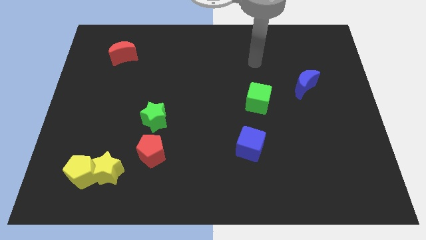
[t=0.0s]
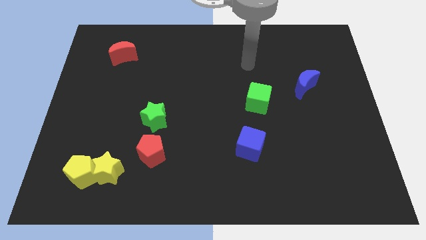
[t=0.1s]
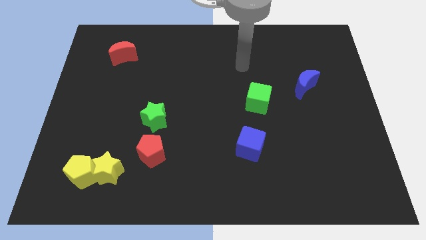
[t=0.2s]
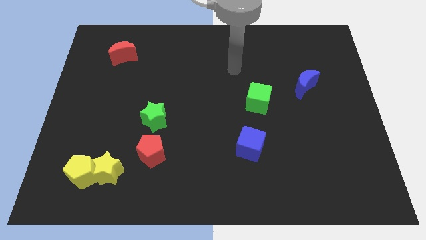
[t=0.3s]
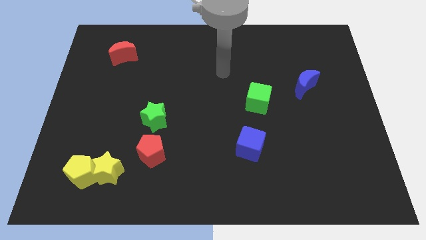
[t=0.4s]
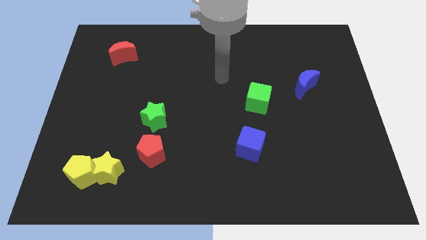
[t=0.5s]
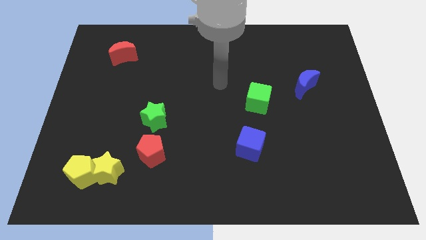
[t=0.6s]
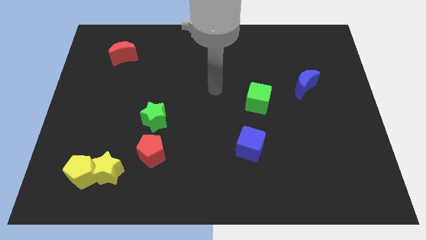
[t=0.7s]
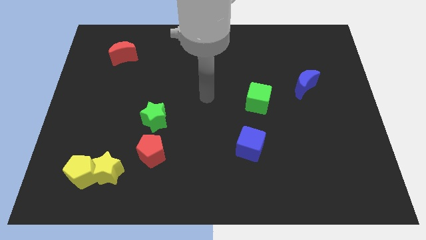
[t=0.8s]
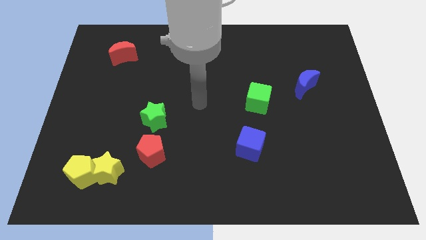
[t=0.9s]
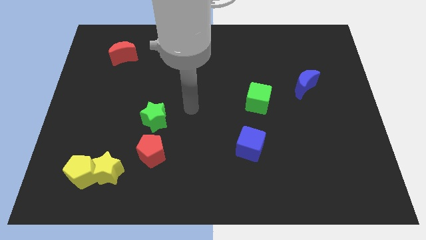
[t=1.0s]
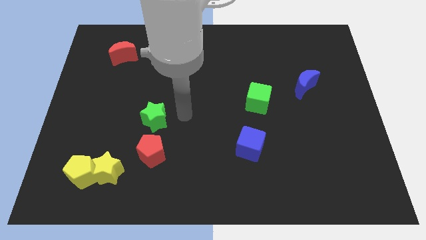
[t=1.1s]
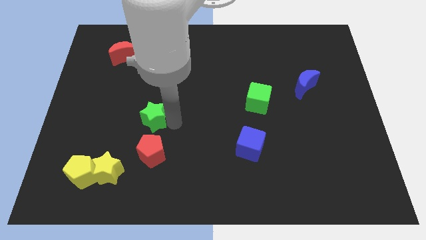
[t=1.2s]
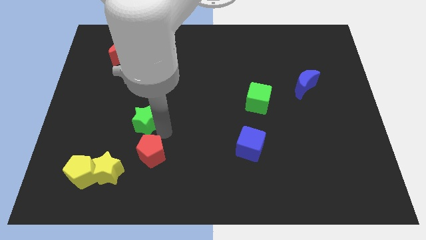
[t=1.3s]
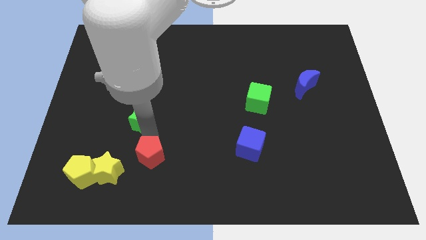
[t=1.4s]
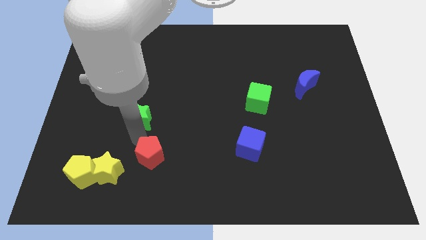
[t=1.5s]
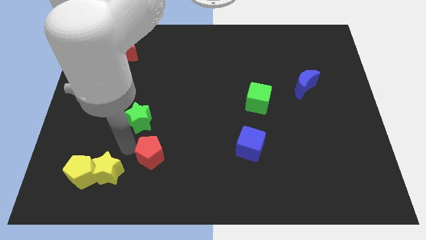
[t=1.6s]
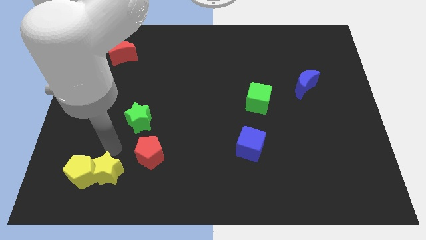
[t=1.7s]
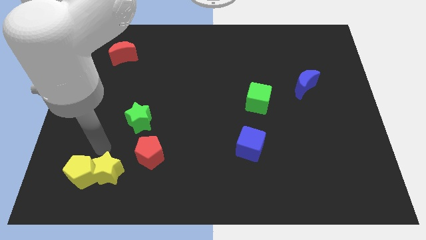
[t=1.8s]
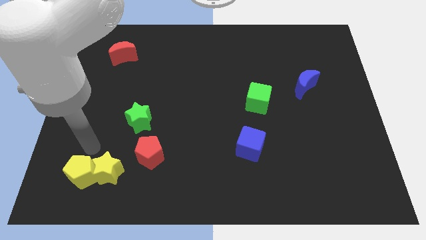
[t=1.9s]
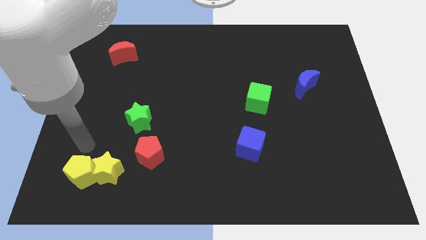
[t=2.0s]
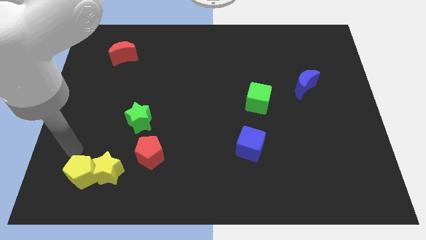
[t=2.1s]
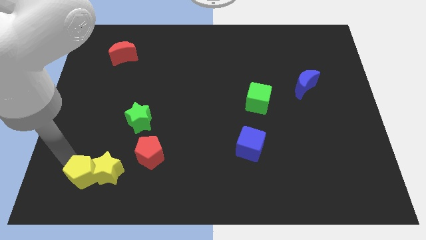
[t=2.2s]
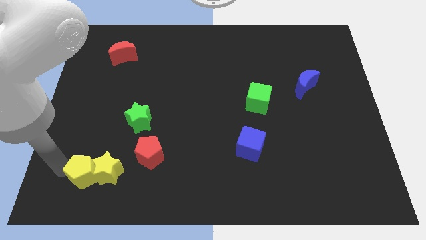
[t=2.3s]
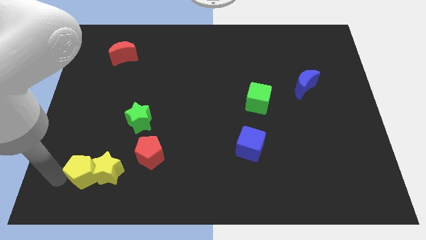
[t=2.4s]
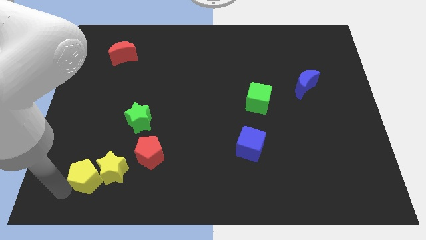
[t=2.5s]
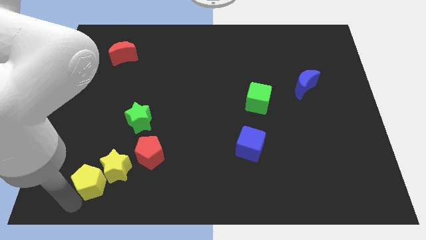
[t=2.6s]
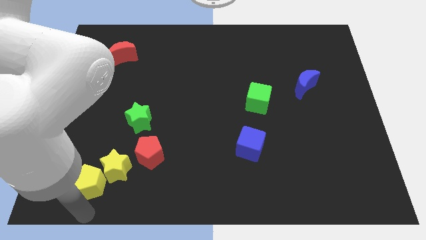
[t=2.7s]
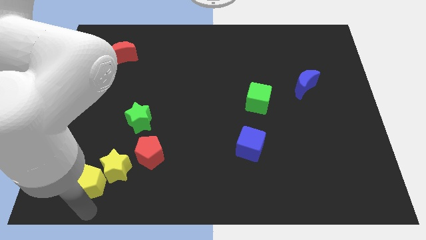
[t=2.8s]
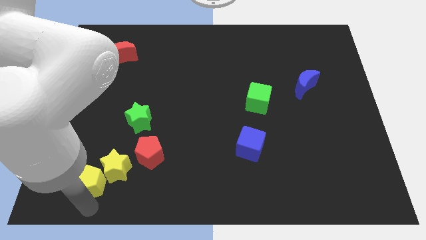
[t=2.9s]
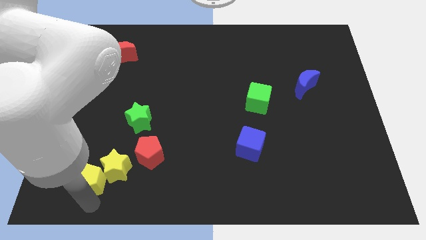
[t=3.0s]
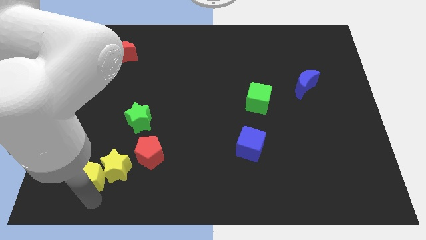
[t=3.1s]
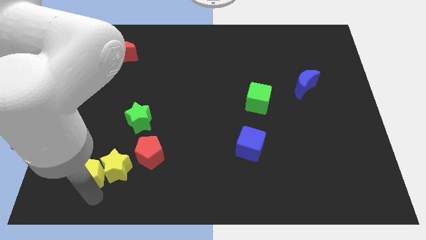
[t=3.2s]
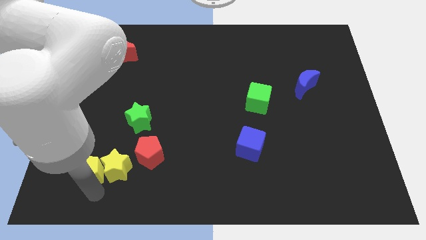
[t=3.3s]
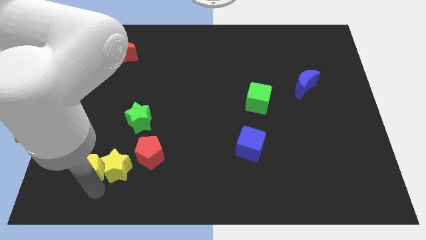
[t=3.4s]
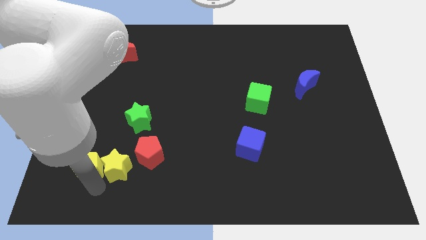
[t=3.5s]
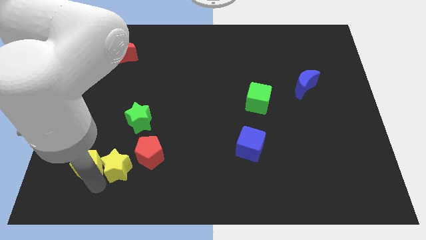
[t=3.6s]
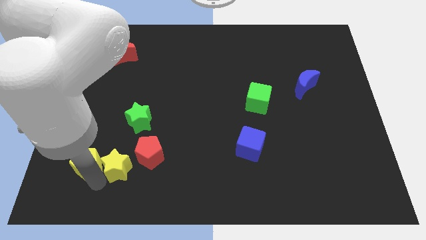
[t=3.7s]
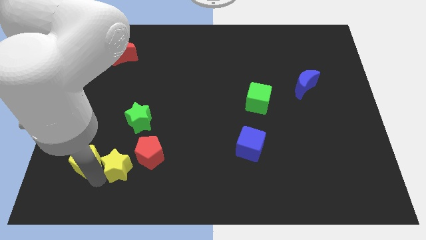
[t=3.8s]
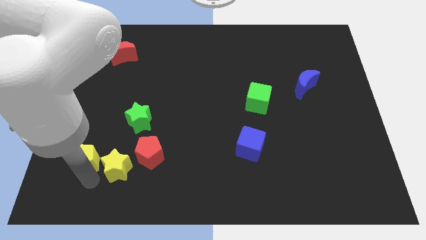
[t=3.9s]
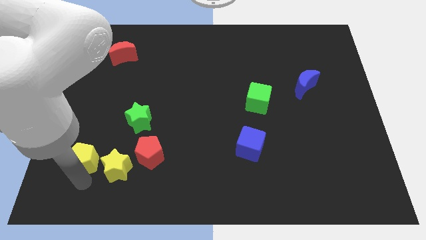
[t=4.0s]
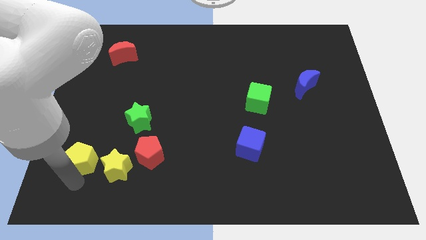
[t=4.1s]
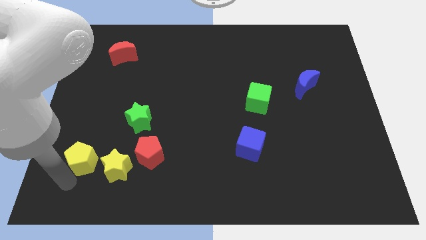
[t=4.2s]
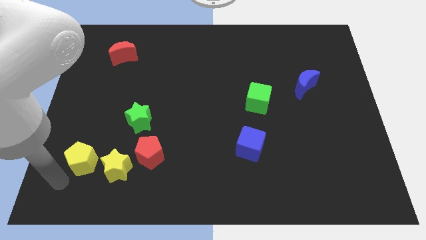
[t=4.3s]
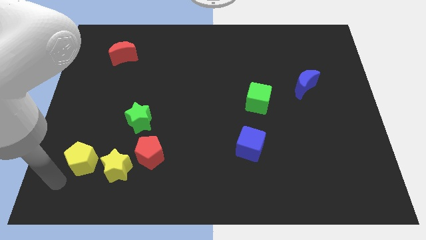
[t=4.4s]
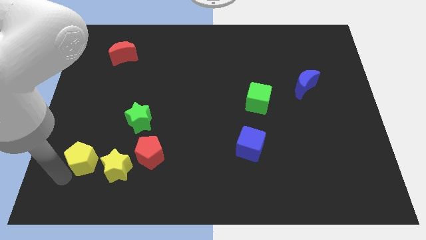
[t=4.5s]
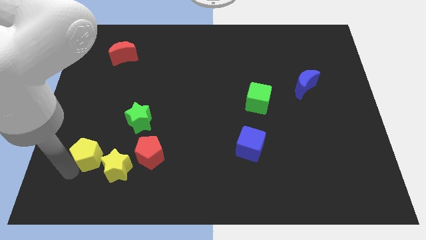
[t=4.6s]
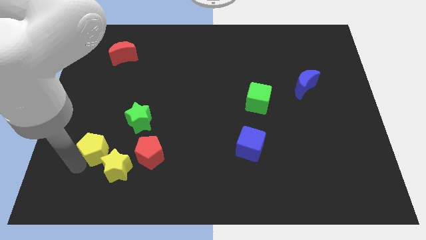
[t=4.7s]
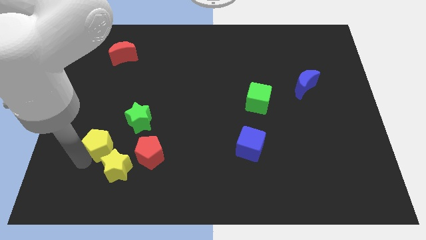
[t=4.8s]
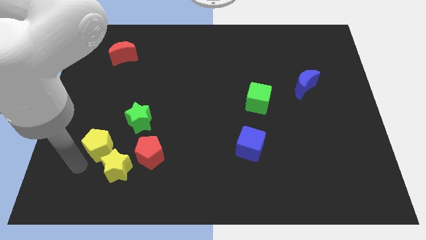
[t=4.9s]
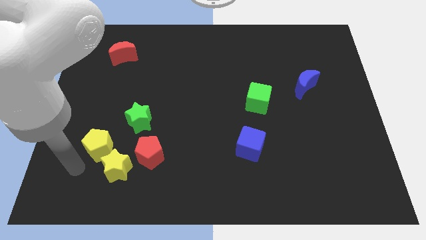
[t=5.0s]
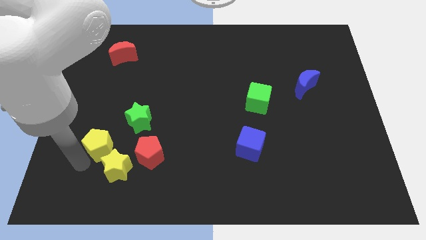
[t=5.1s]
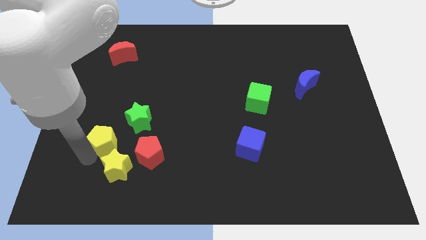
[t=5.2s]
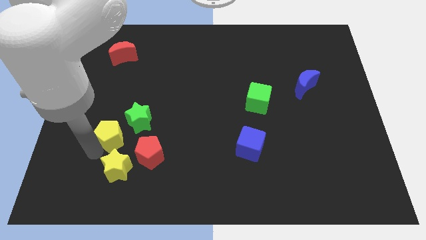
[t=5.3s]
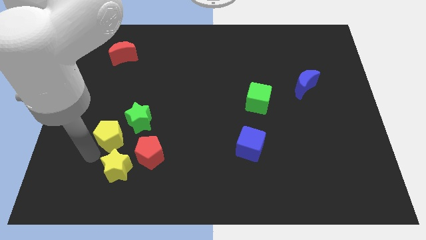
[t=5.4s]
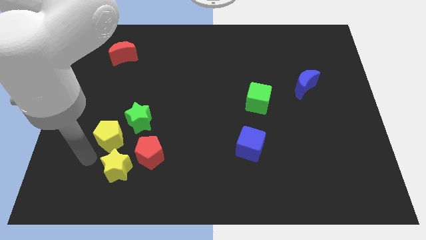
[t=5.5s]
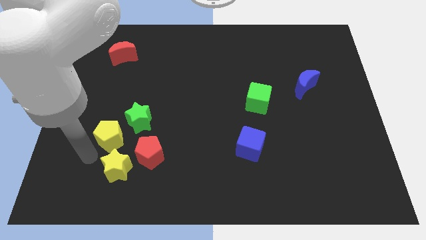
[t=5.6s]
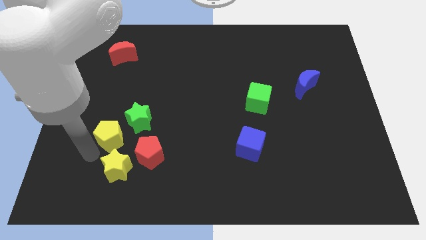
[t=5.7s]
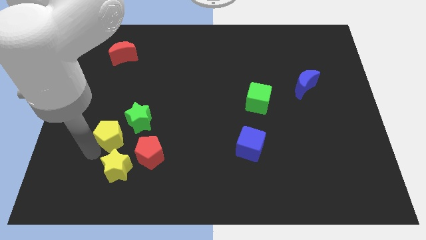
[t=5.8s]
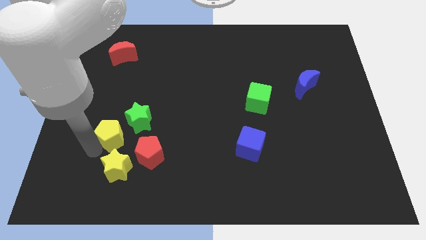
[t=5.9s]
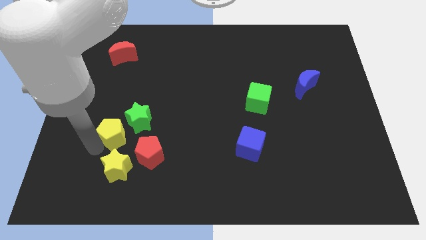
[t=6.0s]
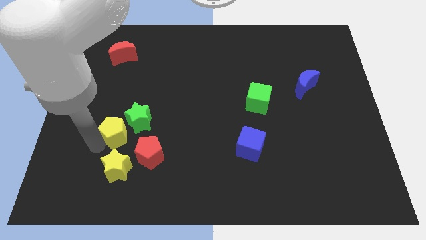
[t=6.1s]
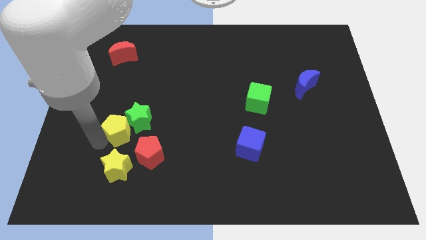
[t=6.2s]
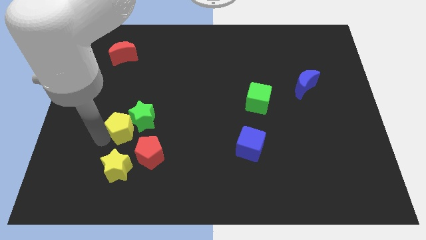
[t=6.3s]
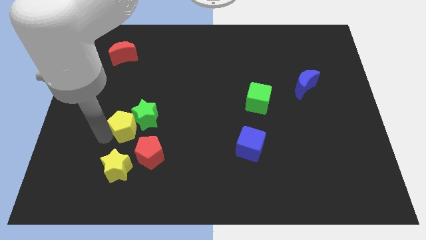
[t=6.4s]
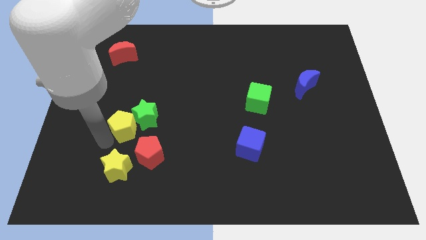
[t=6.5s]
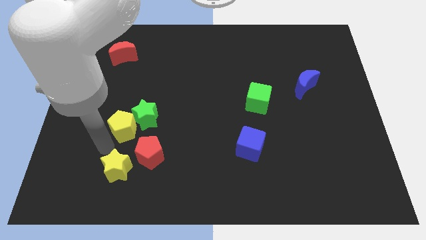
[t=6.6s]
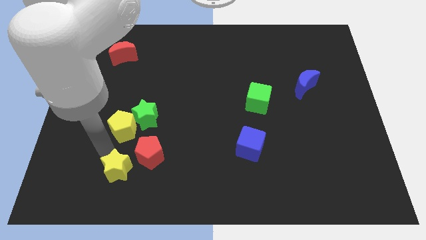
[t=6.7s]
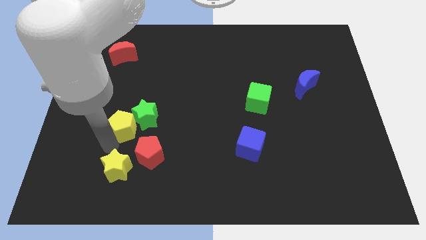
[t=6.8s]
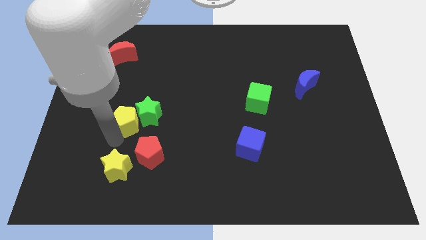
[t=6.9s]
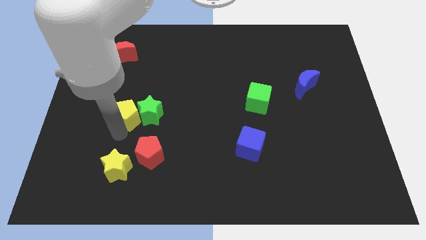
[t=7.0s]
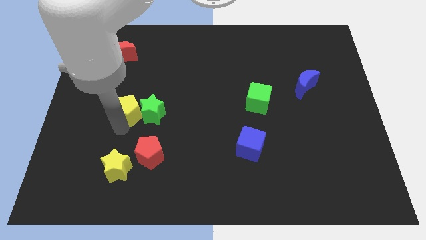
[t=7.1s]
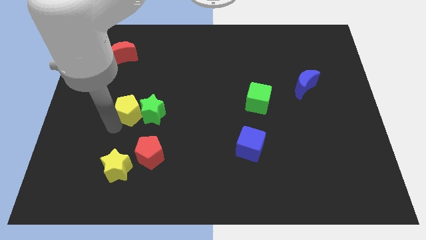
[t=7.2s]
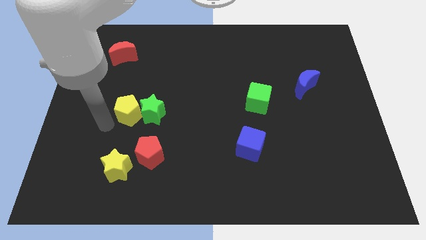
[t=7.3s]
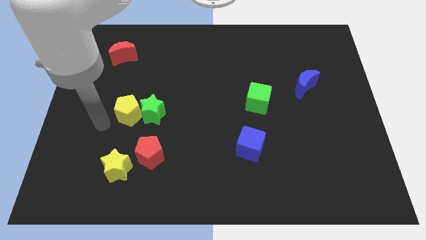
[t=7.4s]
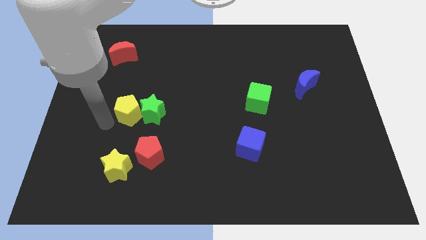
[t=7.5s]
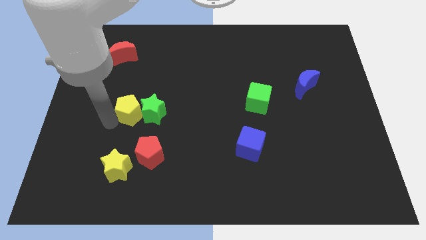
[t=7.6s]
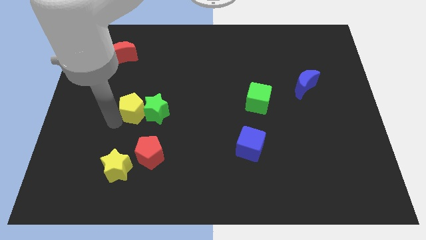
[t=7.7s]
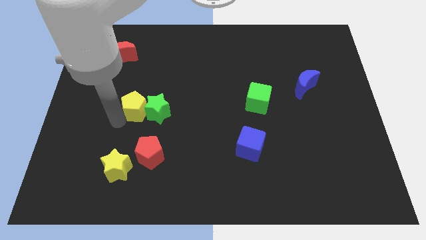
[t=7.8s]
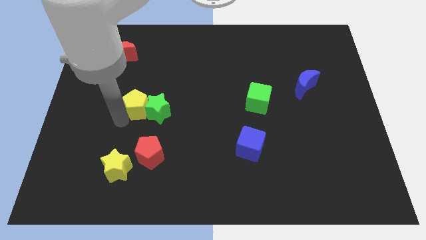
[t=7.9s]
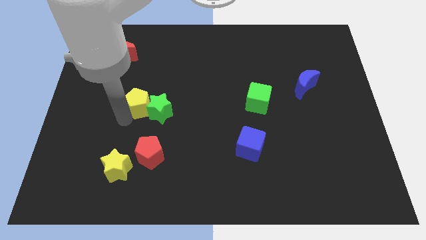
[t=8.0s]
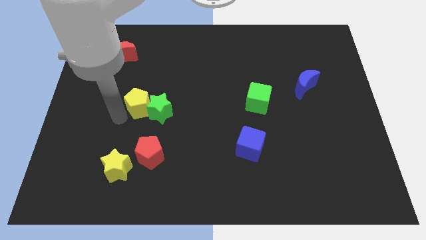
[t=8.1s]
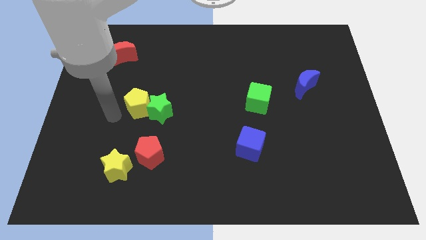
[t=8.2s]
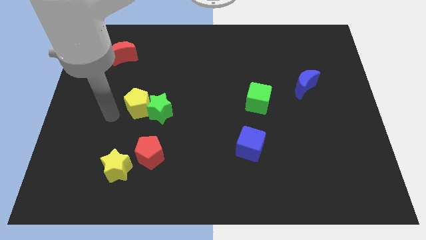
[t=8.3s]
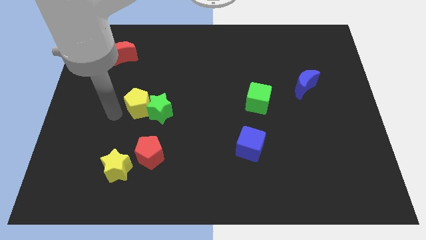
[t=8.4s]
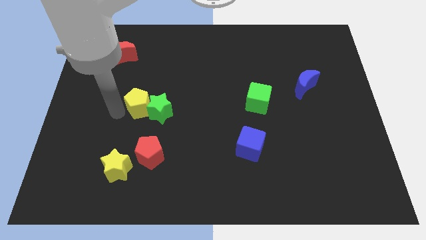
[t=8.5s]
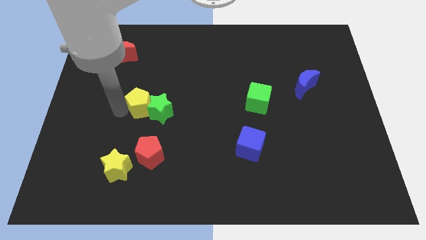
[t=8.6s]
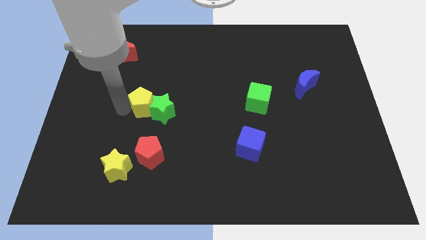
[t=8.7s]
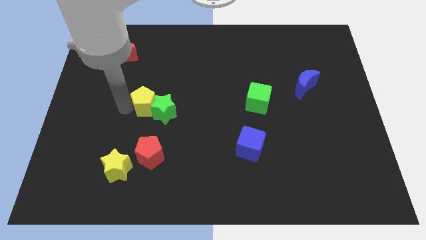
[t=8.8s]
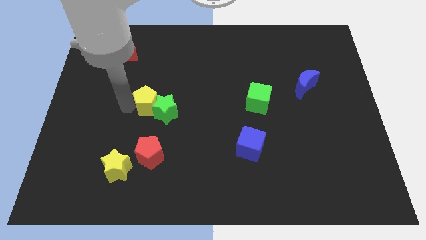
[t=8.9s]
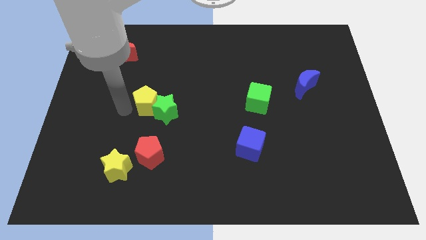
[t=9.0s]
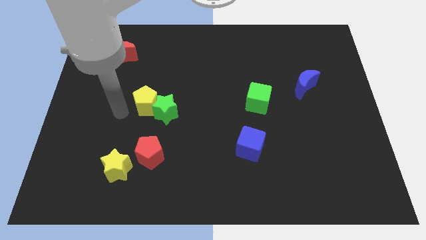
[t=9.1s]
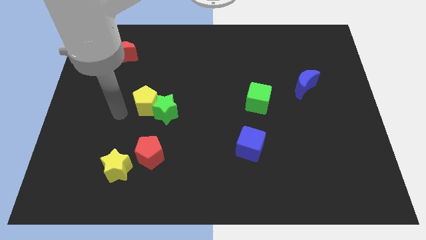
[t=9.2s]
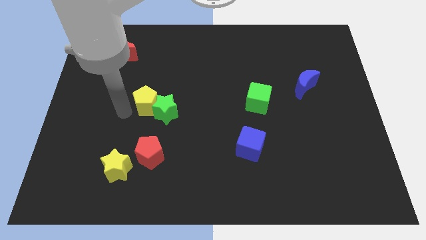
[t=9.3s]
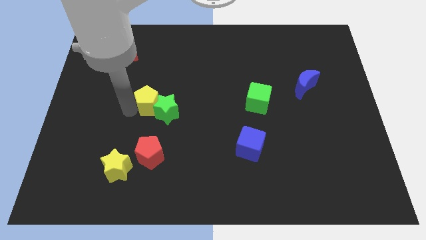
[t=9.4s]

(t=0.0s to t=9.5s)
push the yellow pentagon upwards and then right
